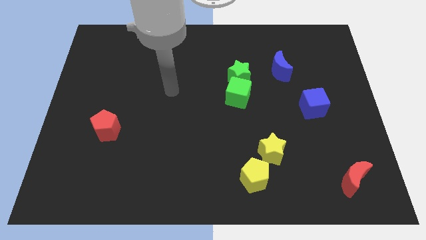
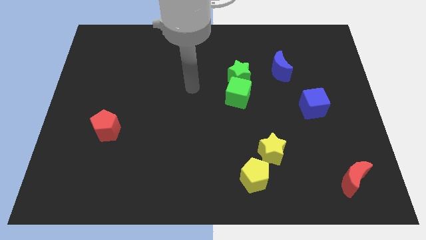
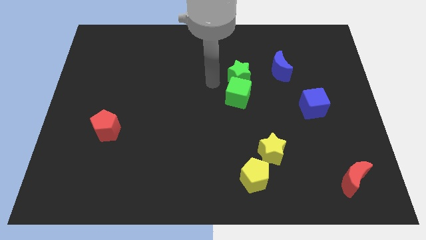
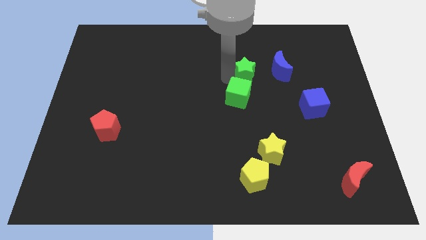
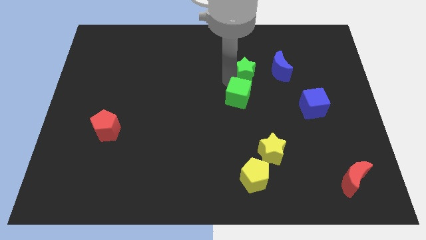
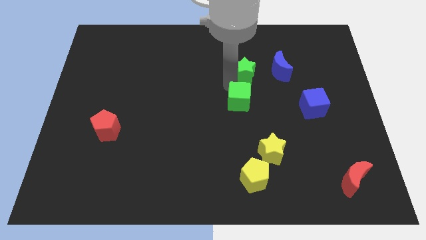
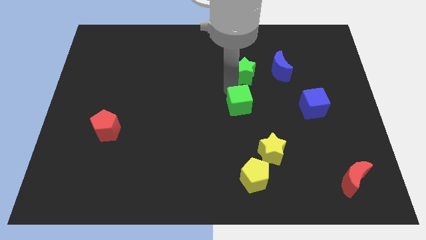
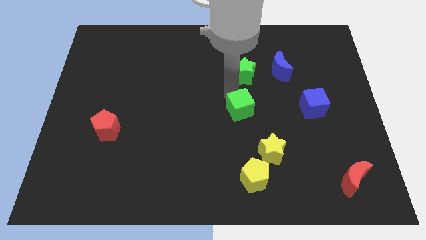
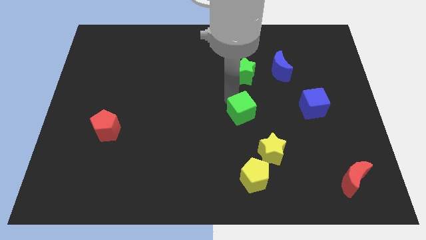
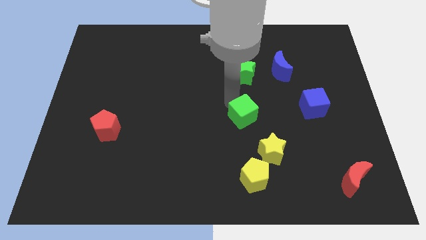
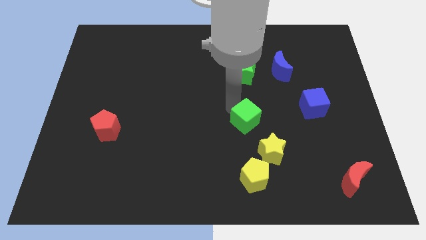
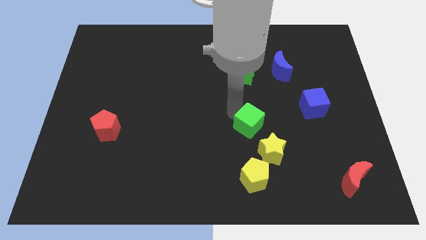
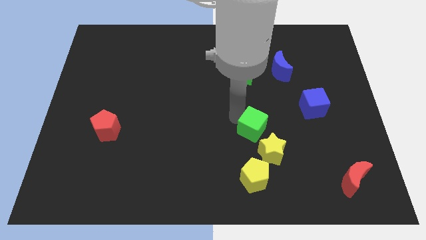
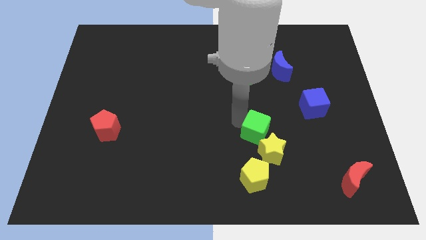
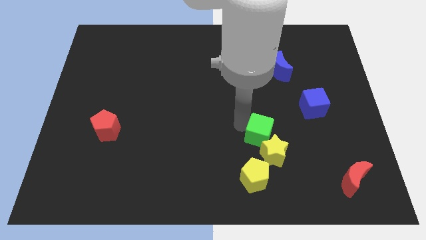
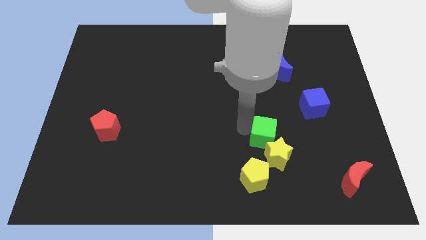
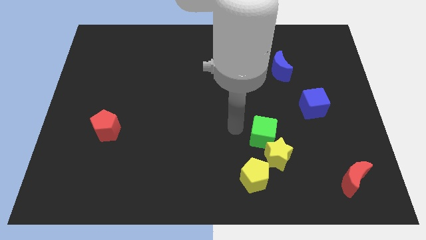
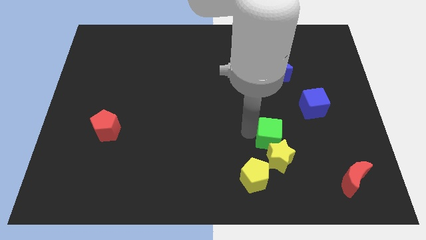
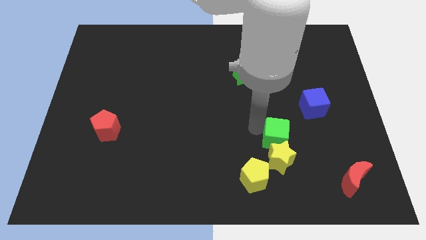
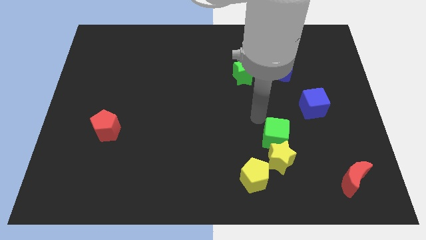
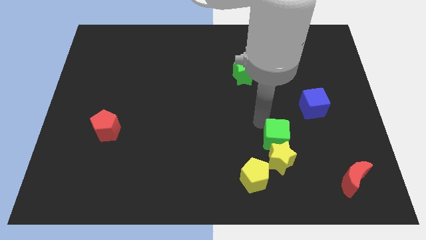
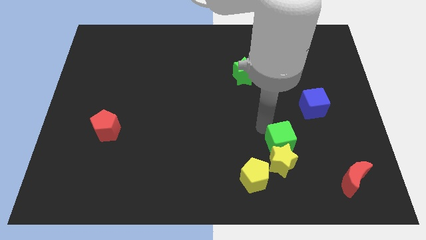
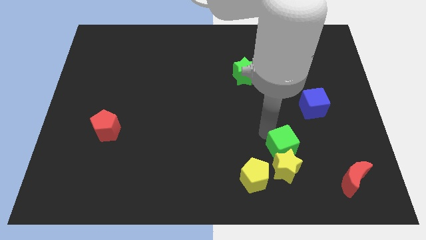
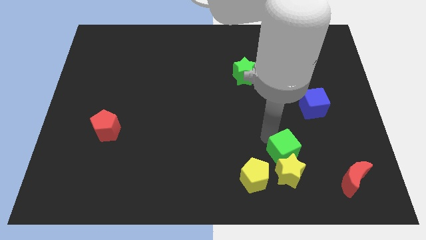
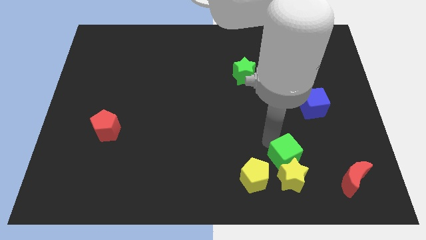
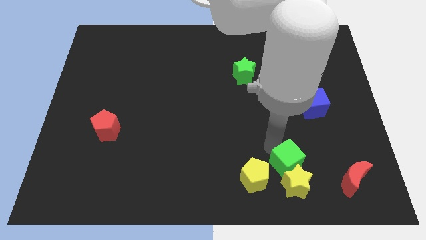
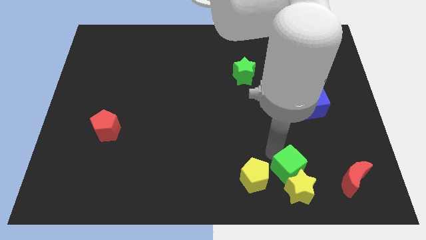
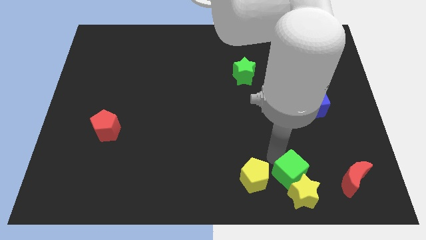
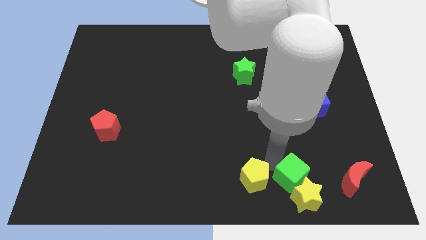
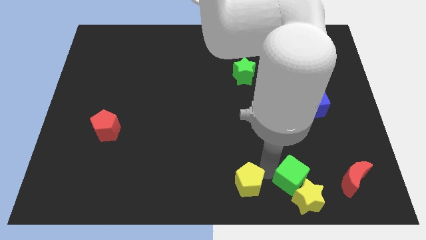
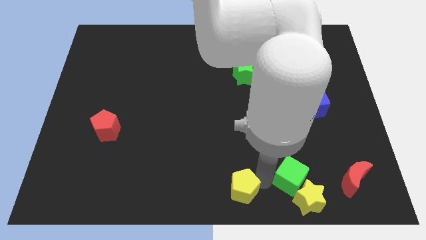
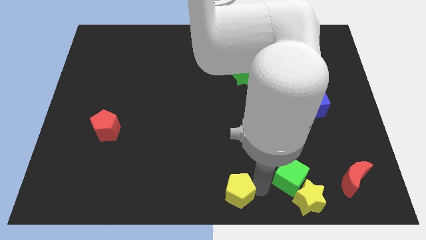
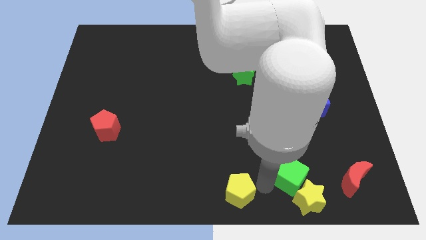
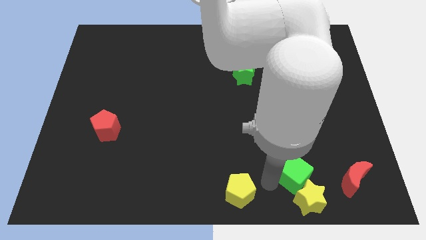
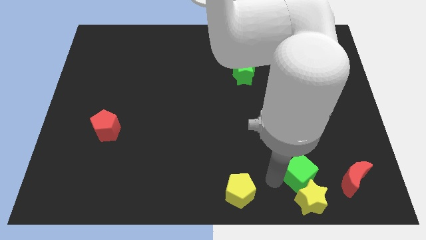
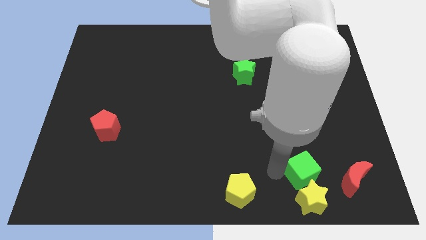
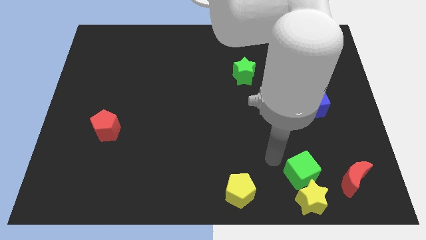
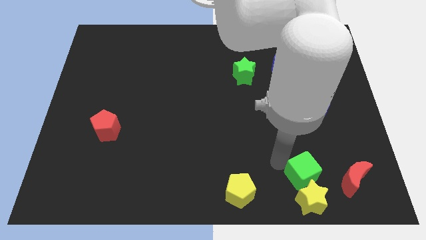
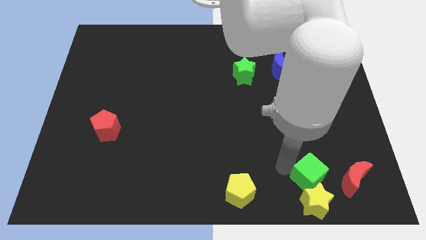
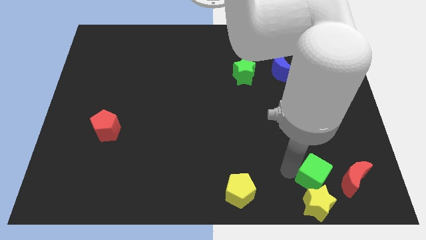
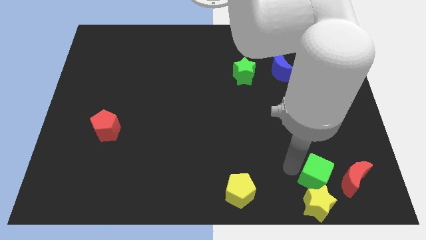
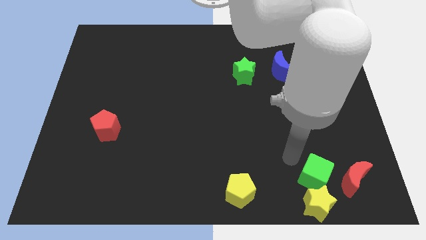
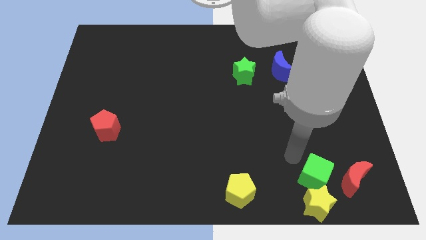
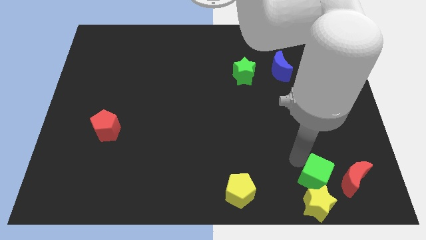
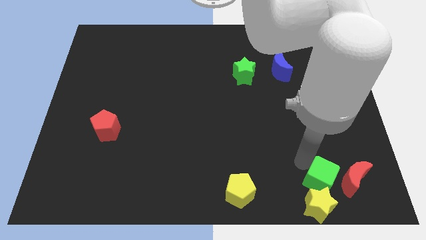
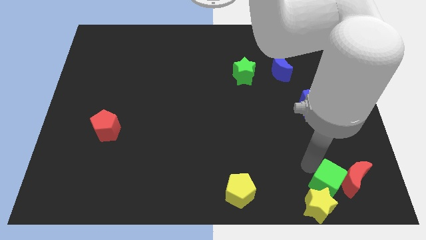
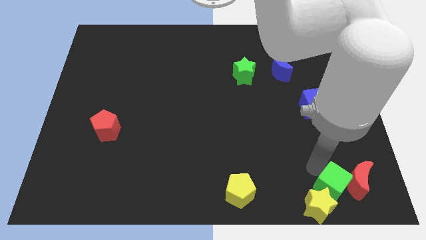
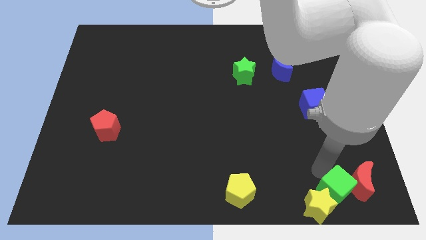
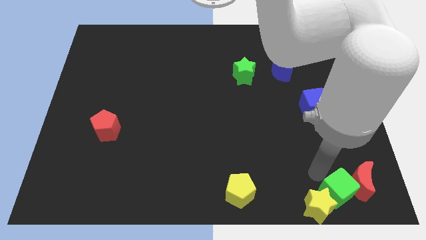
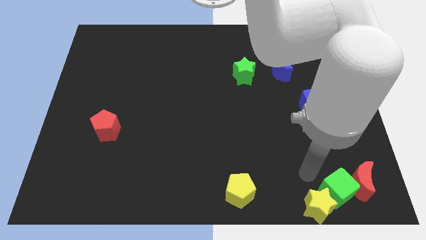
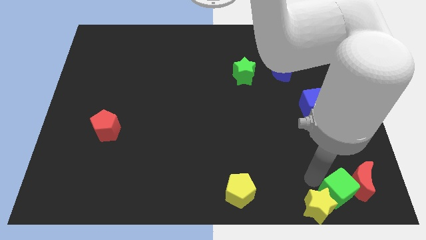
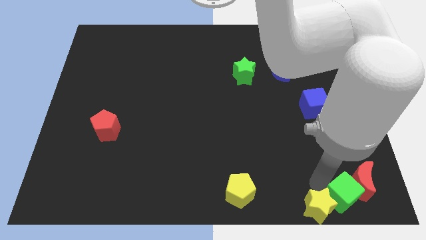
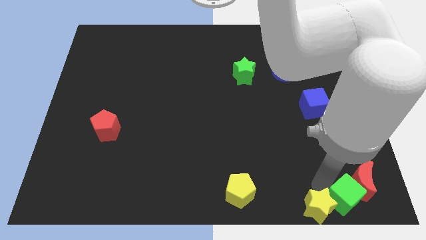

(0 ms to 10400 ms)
move the green cube to the lower right corner
